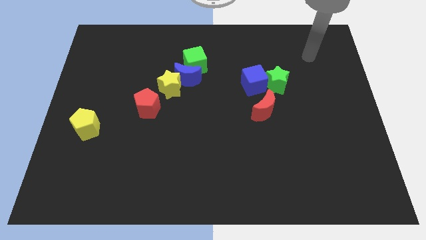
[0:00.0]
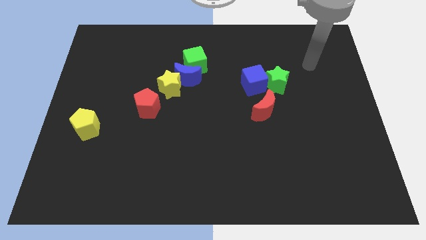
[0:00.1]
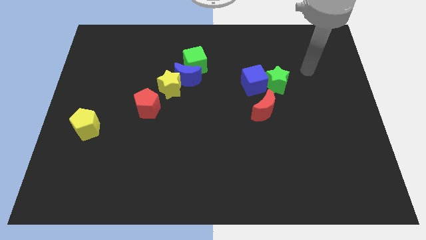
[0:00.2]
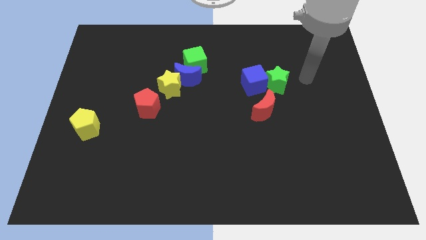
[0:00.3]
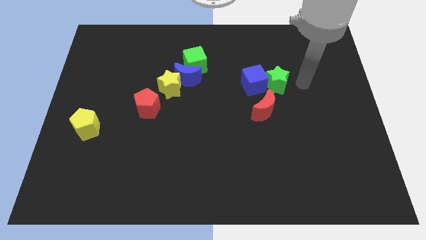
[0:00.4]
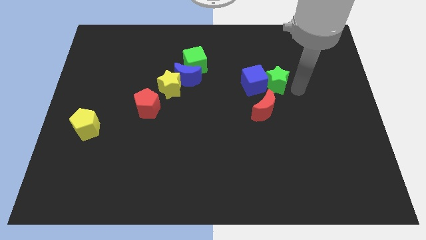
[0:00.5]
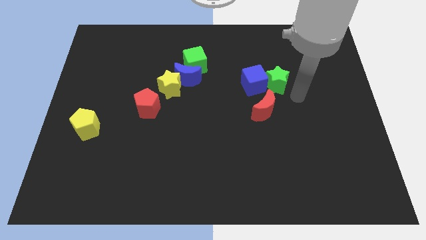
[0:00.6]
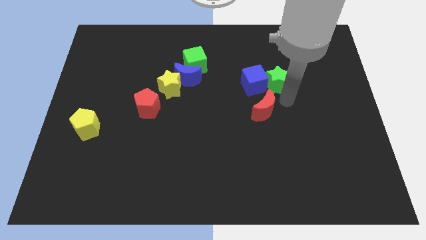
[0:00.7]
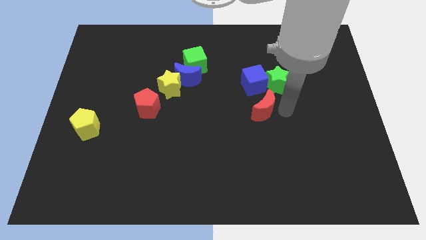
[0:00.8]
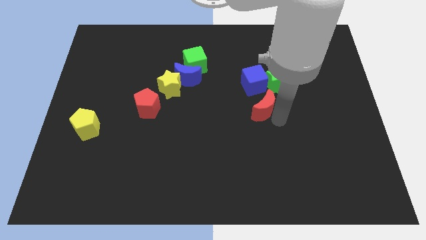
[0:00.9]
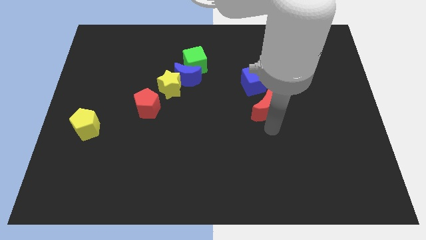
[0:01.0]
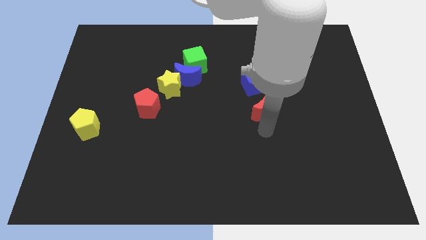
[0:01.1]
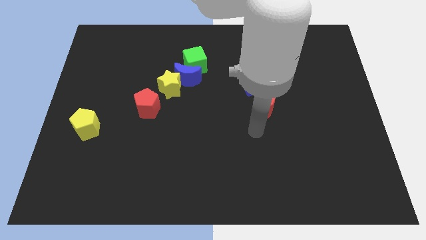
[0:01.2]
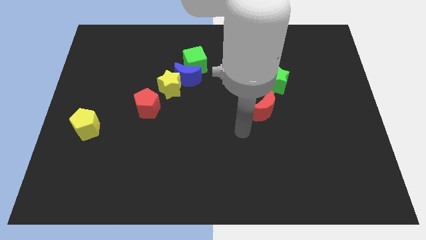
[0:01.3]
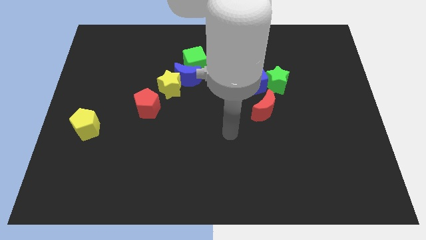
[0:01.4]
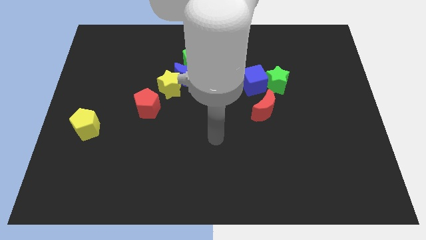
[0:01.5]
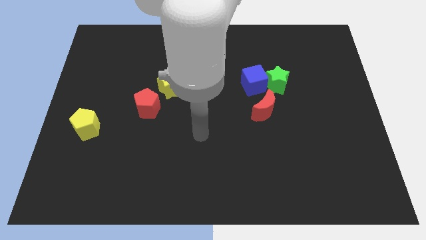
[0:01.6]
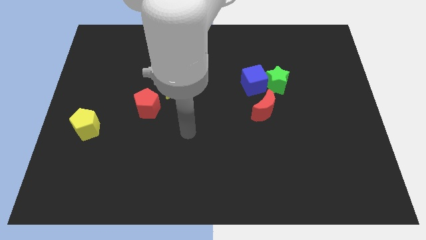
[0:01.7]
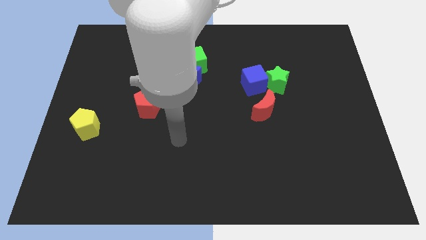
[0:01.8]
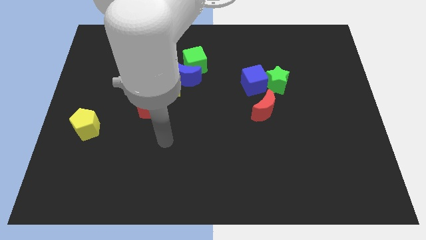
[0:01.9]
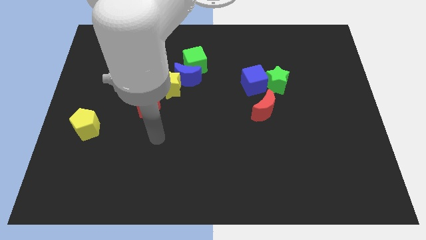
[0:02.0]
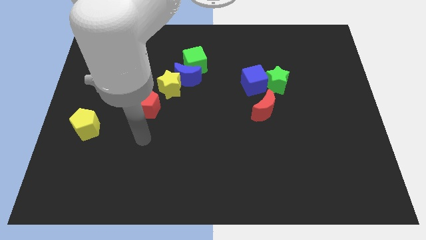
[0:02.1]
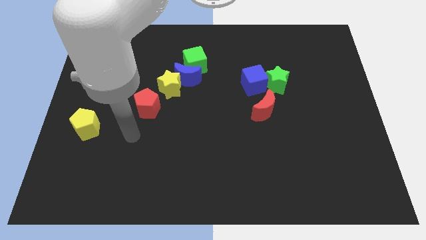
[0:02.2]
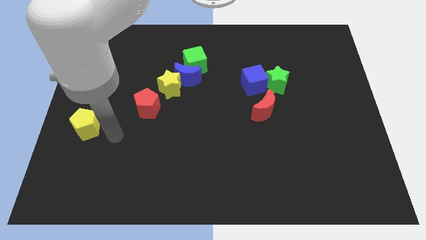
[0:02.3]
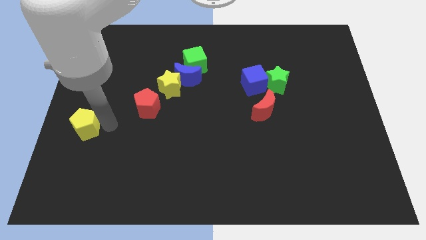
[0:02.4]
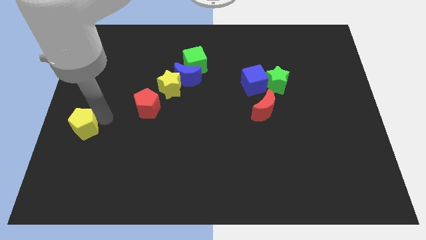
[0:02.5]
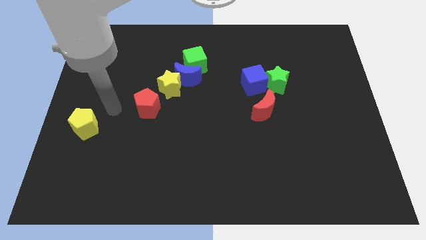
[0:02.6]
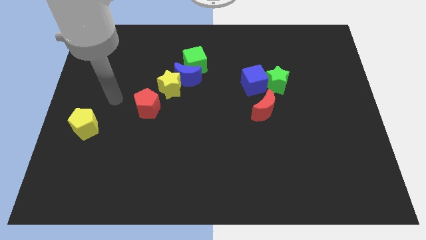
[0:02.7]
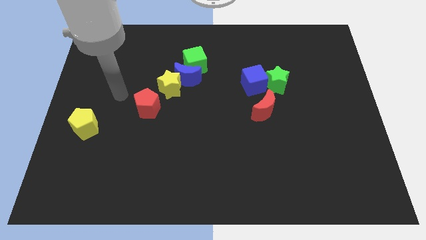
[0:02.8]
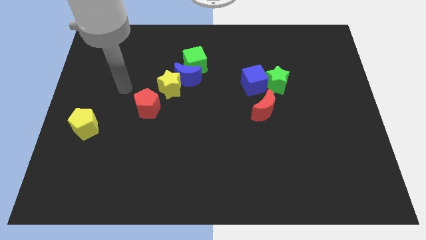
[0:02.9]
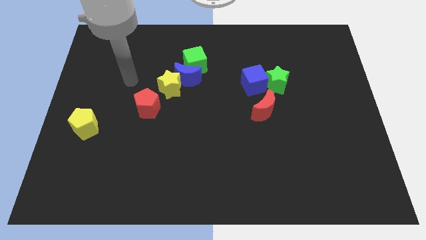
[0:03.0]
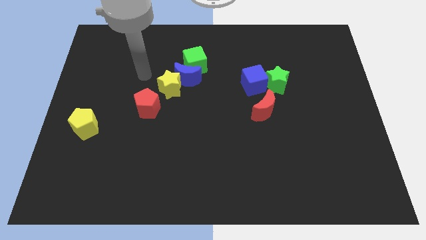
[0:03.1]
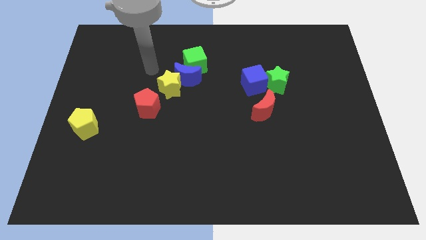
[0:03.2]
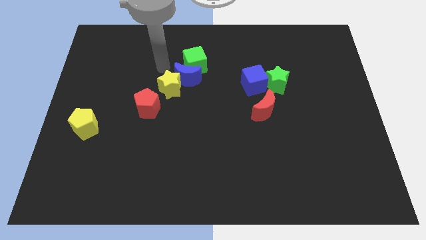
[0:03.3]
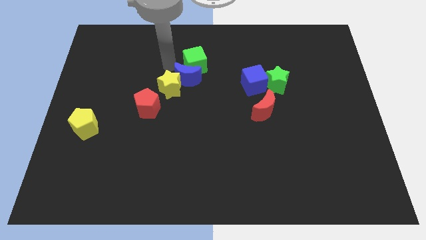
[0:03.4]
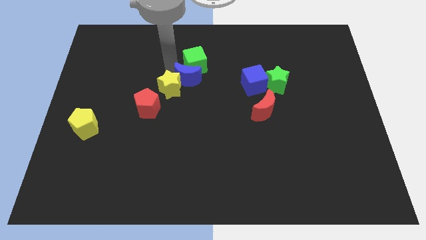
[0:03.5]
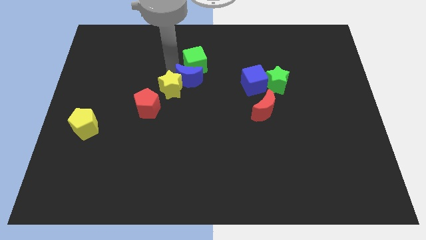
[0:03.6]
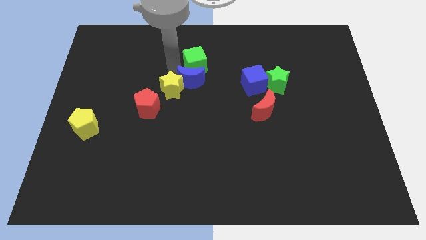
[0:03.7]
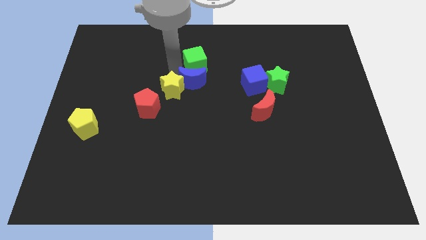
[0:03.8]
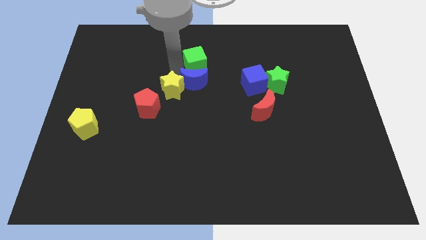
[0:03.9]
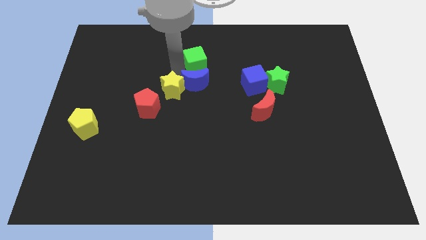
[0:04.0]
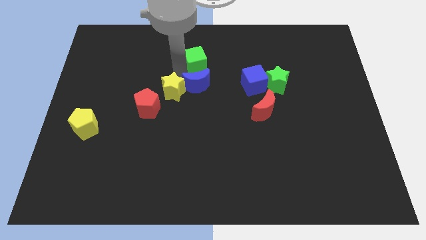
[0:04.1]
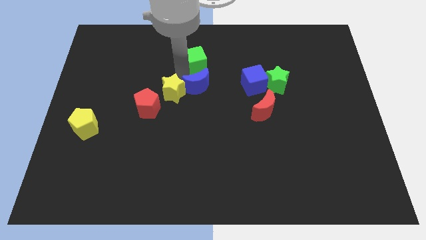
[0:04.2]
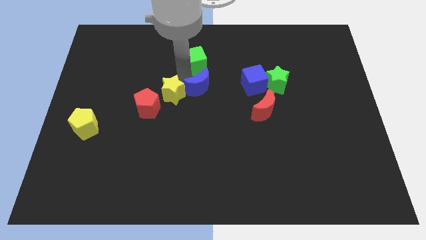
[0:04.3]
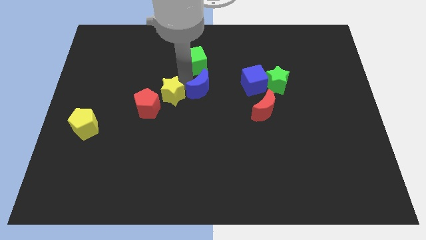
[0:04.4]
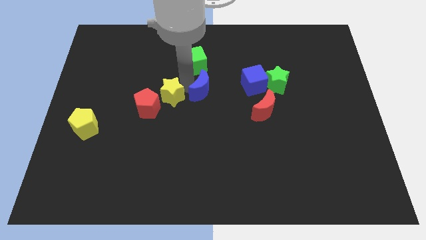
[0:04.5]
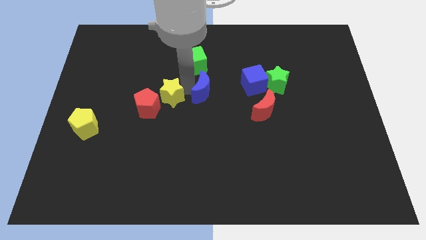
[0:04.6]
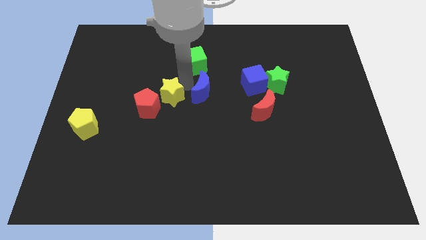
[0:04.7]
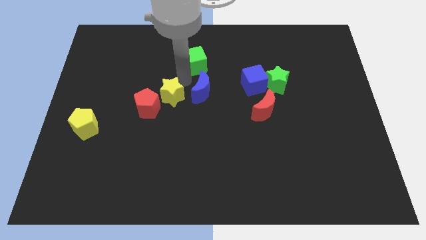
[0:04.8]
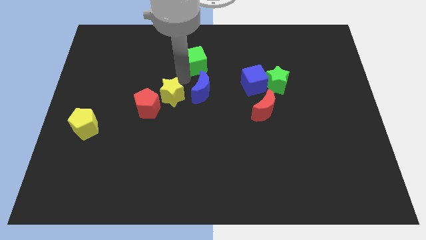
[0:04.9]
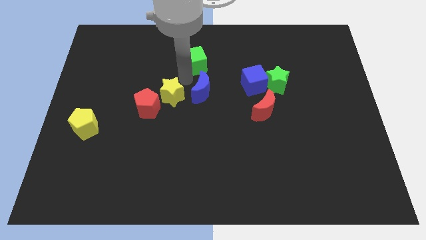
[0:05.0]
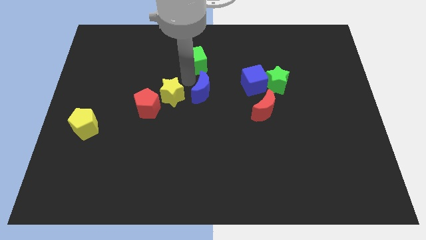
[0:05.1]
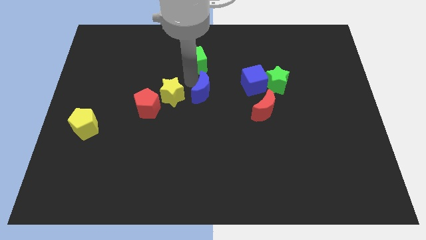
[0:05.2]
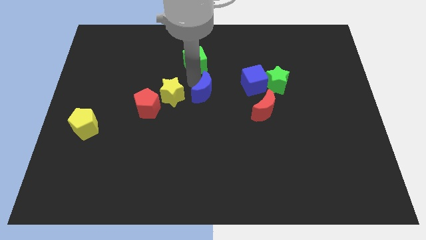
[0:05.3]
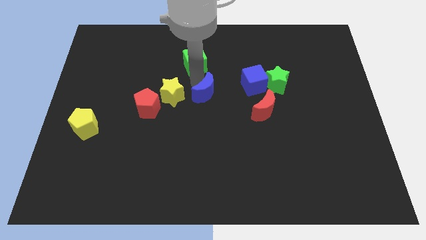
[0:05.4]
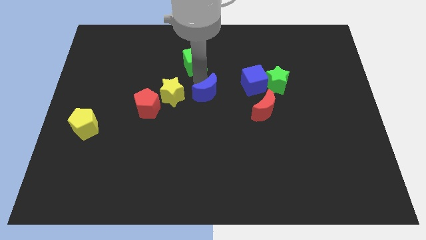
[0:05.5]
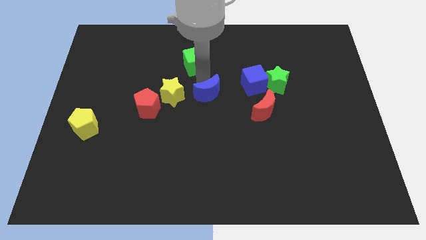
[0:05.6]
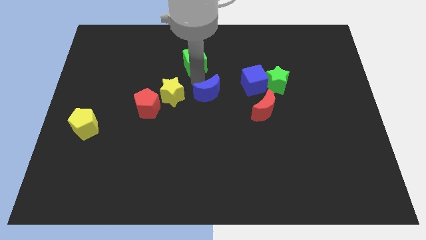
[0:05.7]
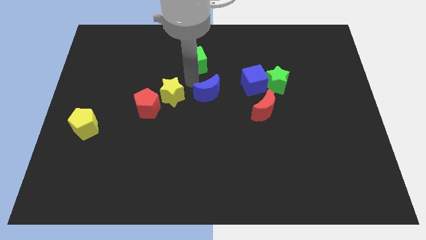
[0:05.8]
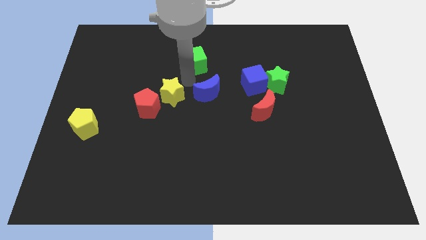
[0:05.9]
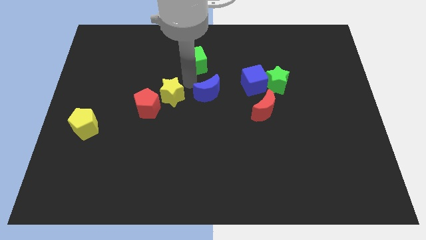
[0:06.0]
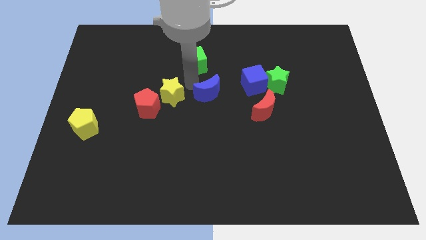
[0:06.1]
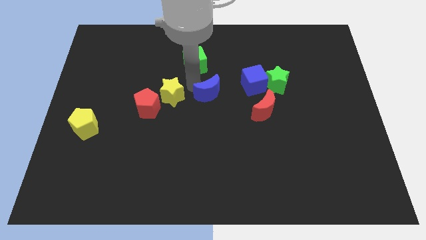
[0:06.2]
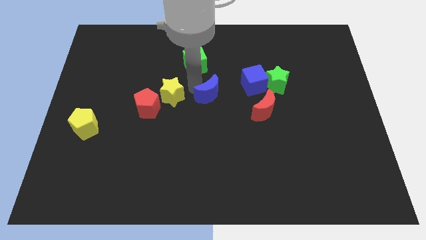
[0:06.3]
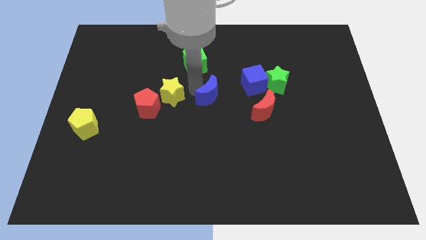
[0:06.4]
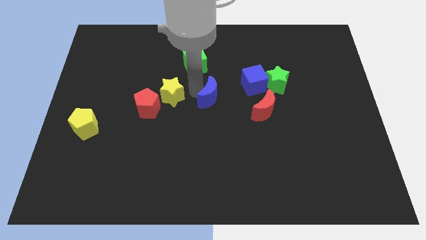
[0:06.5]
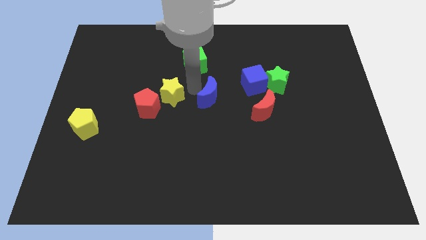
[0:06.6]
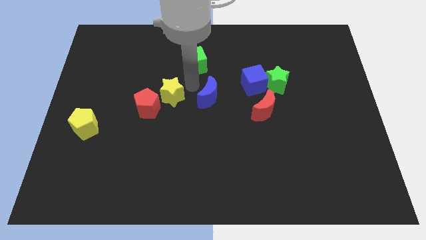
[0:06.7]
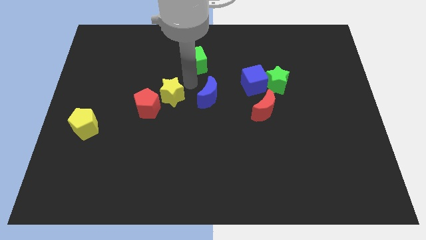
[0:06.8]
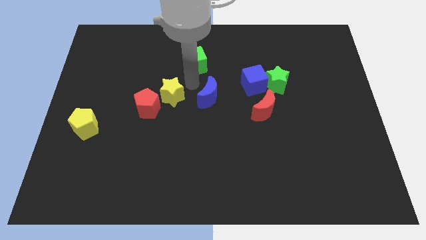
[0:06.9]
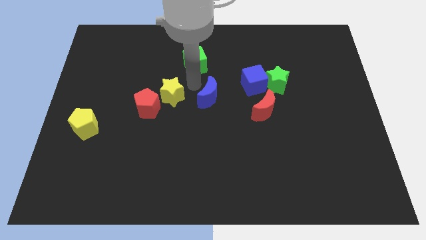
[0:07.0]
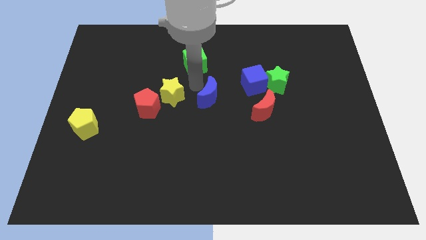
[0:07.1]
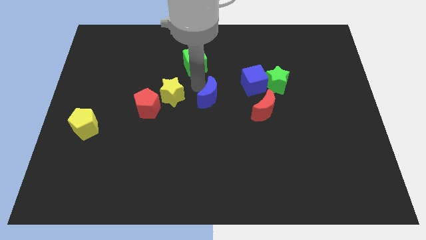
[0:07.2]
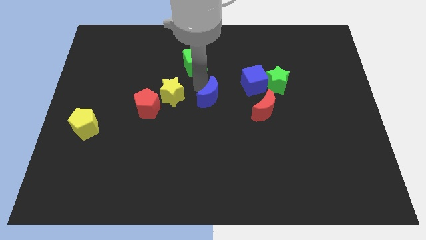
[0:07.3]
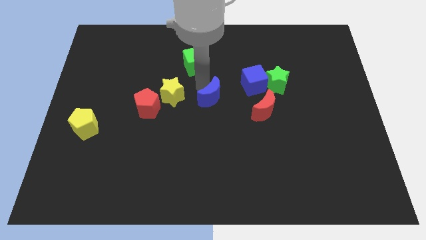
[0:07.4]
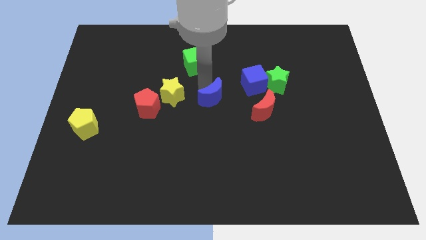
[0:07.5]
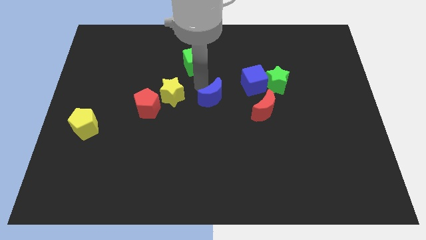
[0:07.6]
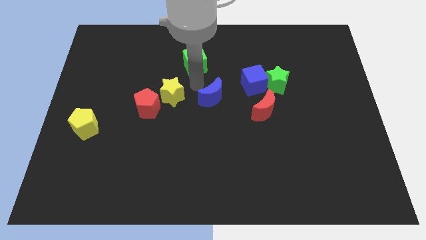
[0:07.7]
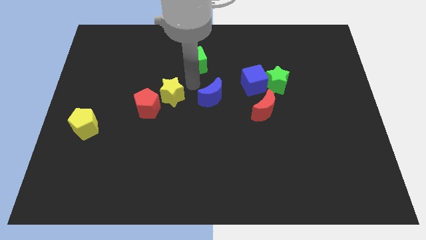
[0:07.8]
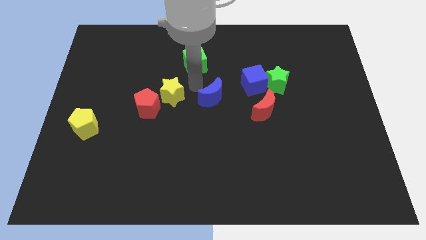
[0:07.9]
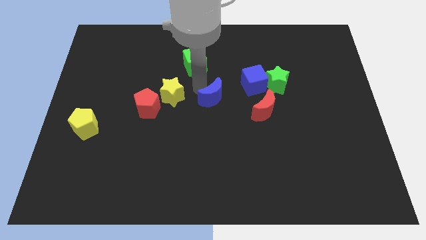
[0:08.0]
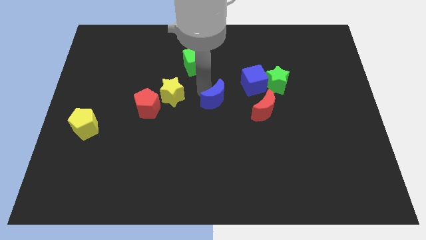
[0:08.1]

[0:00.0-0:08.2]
separate the blue moon from the yellow star and green cube

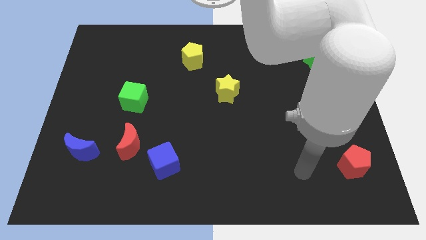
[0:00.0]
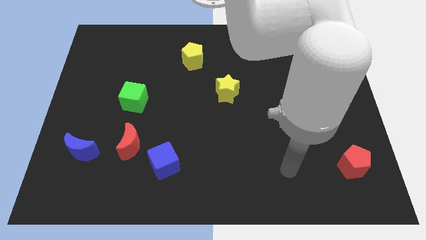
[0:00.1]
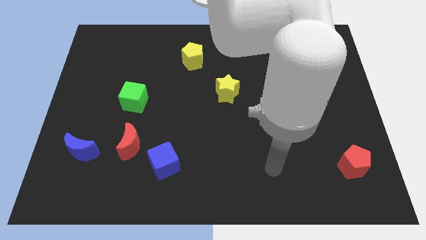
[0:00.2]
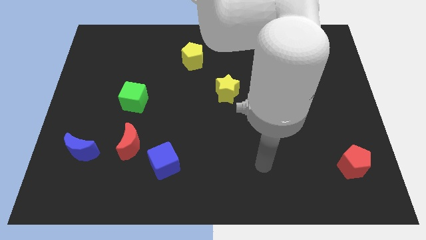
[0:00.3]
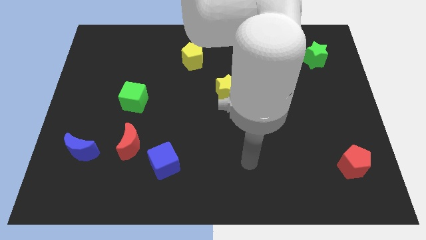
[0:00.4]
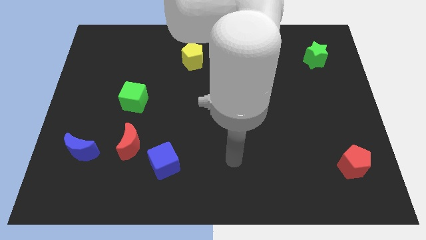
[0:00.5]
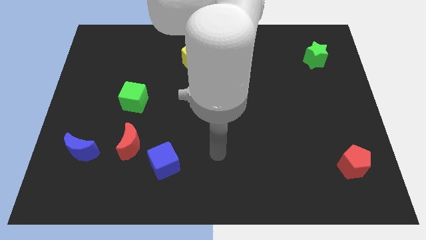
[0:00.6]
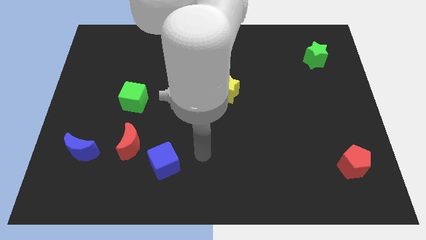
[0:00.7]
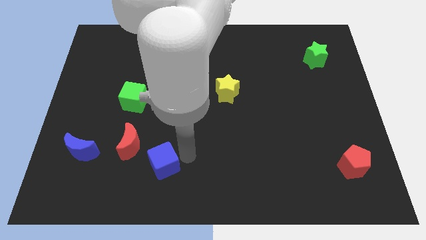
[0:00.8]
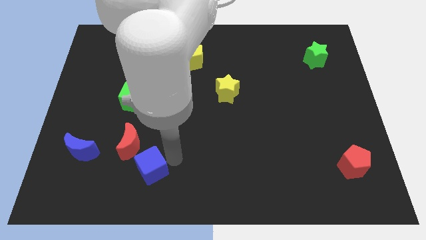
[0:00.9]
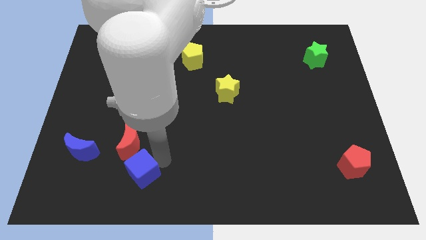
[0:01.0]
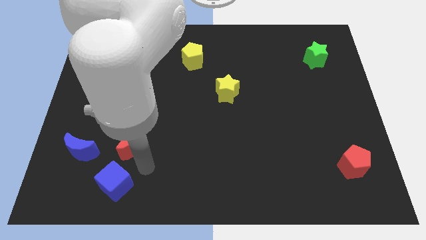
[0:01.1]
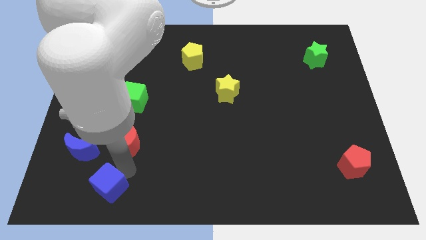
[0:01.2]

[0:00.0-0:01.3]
separate the red moon from the blue cube
